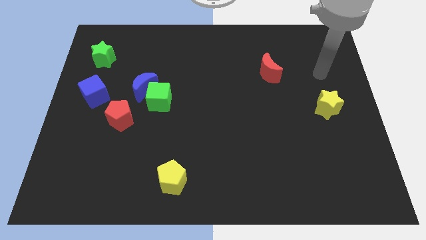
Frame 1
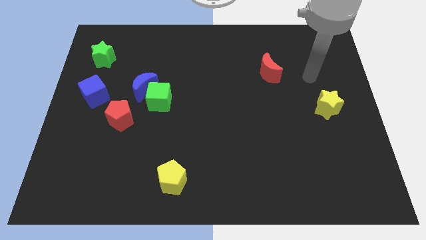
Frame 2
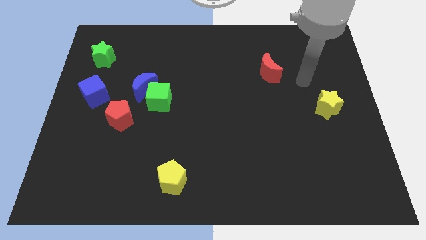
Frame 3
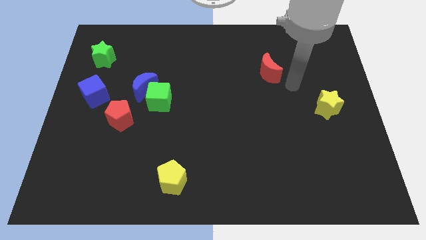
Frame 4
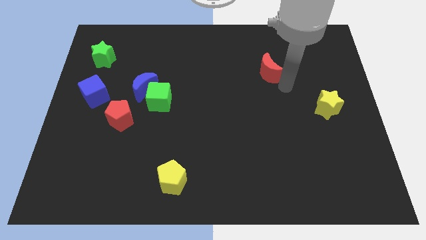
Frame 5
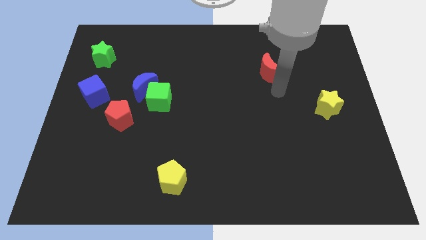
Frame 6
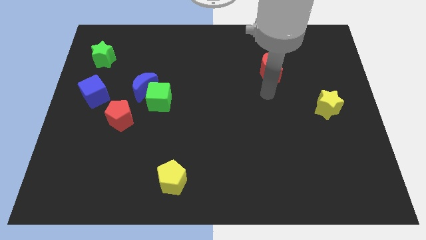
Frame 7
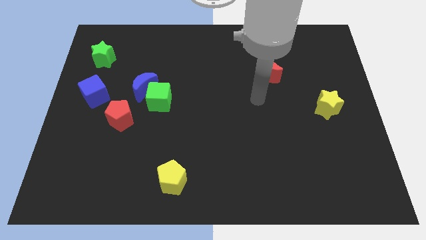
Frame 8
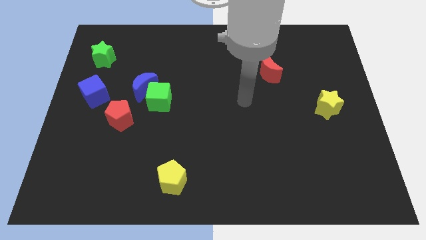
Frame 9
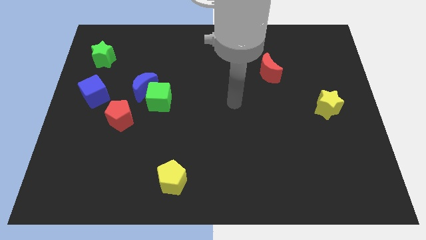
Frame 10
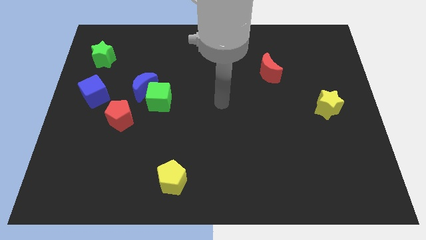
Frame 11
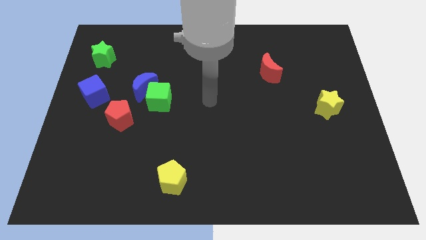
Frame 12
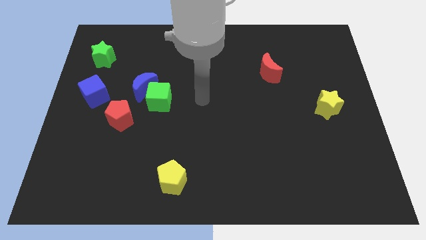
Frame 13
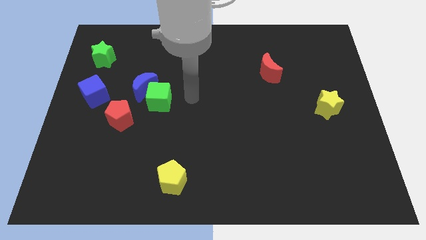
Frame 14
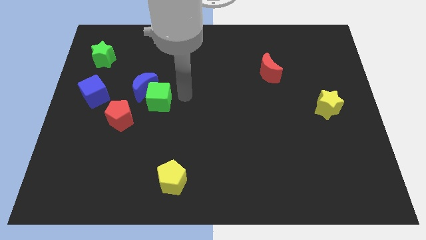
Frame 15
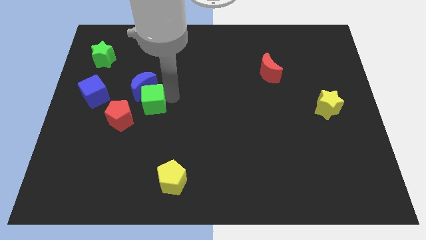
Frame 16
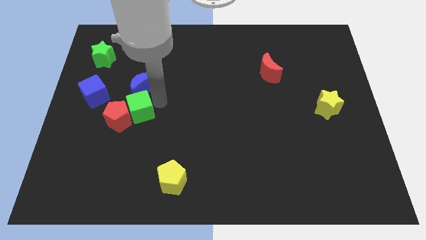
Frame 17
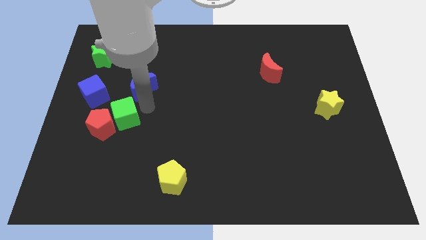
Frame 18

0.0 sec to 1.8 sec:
pull the blue moon apart from the green cube and red pentagon

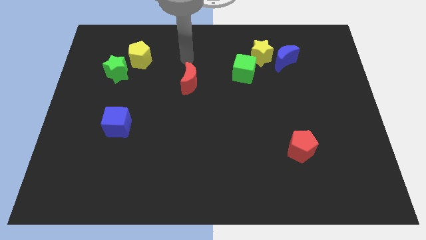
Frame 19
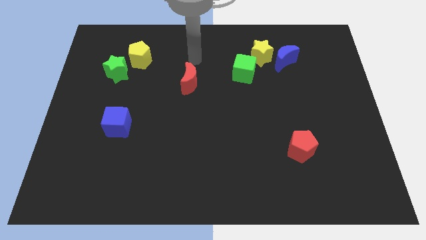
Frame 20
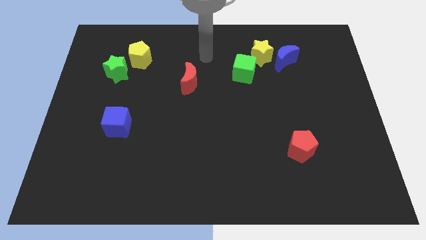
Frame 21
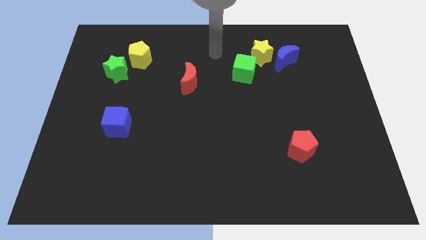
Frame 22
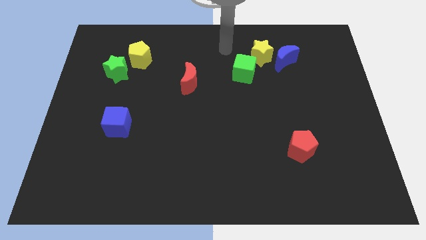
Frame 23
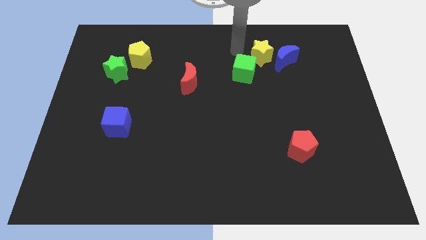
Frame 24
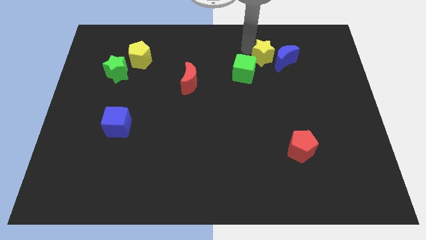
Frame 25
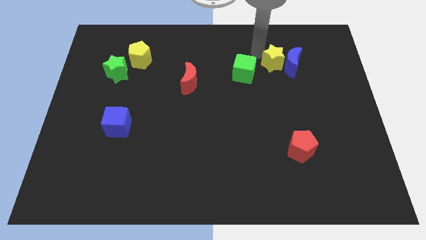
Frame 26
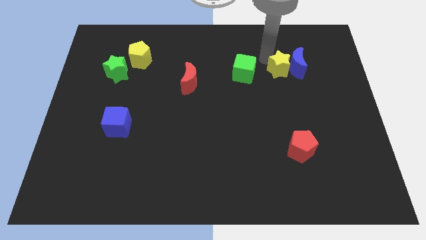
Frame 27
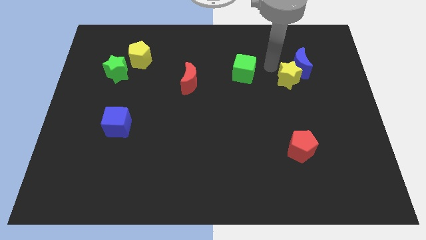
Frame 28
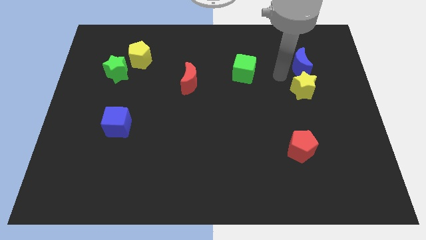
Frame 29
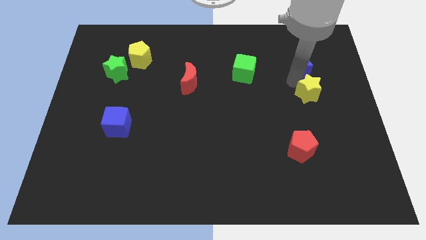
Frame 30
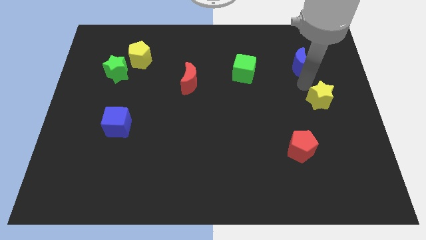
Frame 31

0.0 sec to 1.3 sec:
separate the blue moon from the yellow star

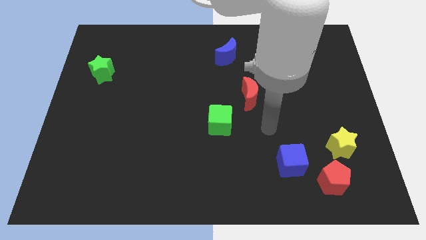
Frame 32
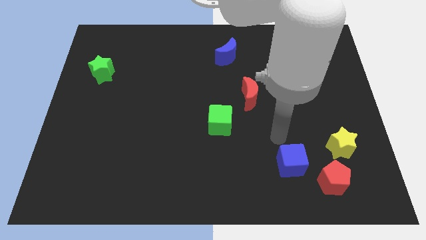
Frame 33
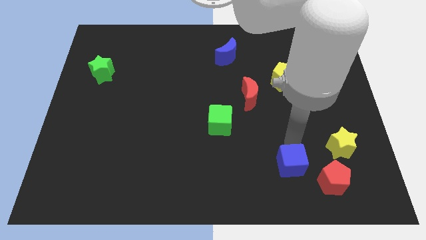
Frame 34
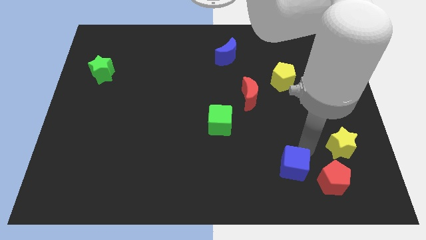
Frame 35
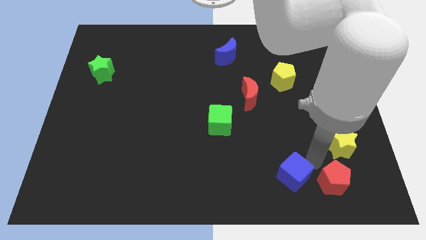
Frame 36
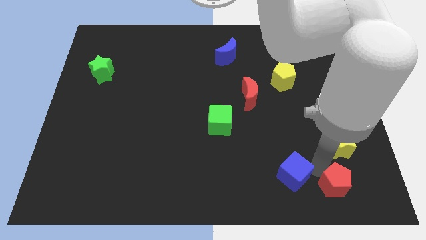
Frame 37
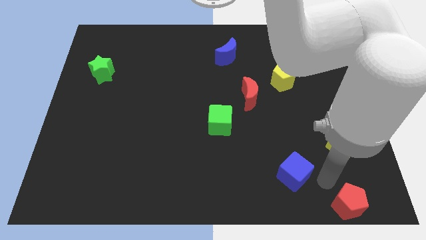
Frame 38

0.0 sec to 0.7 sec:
move the blue cube away from the red pentagon

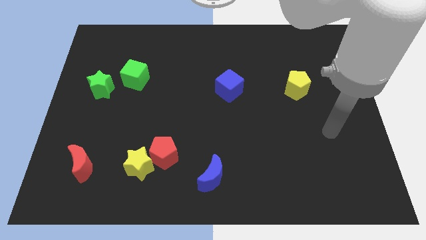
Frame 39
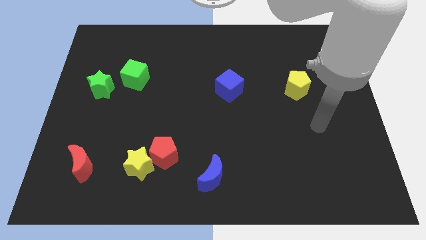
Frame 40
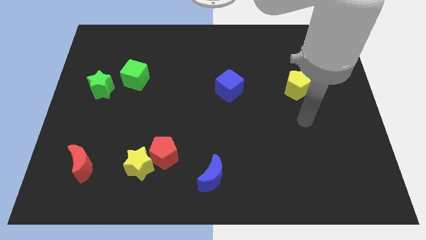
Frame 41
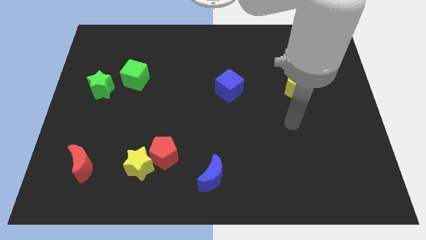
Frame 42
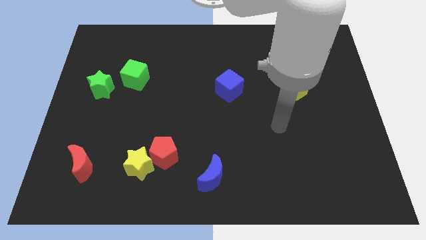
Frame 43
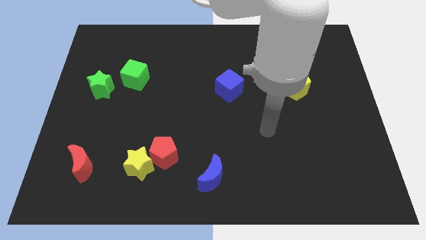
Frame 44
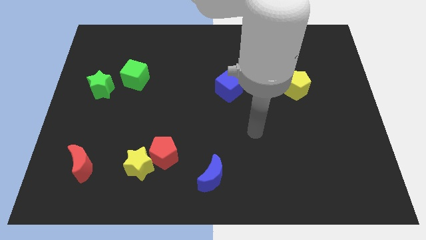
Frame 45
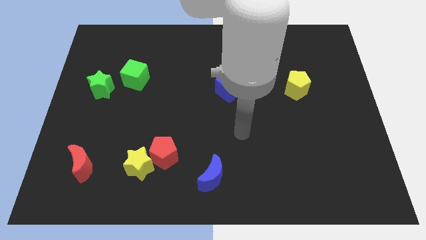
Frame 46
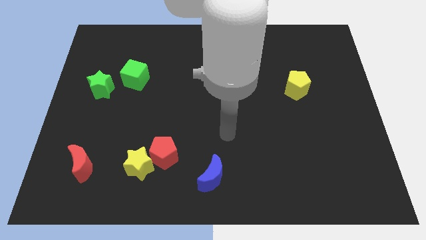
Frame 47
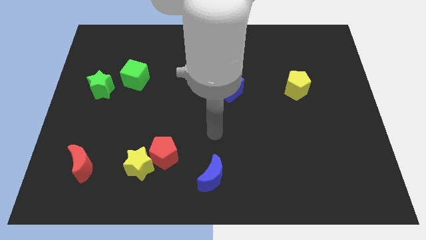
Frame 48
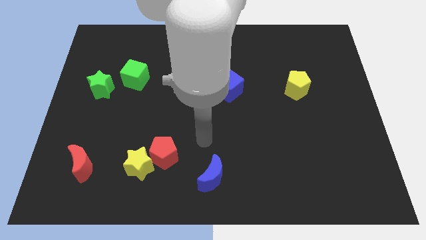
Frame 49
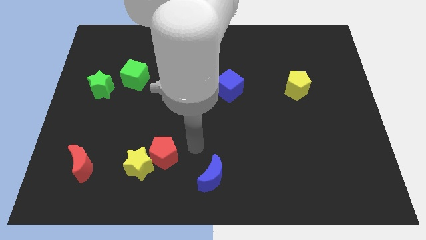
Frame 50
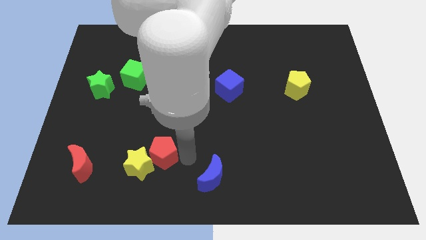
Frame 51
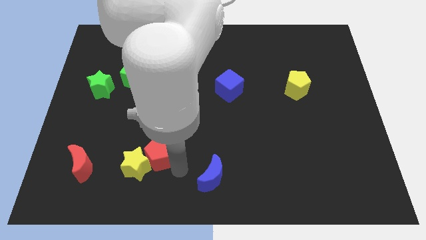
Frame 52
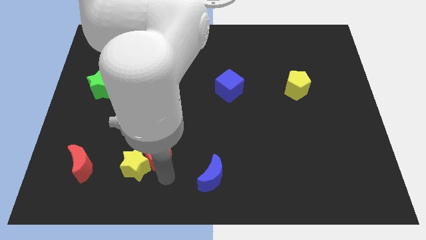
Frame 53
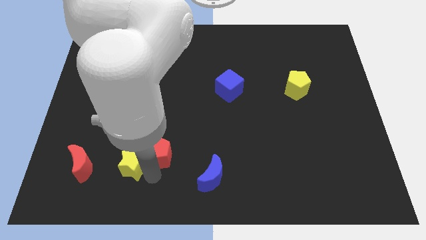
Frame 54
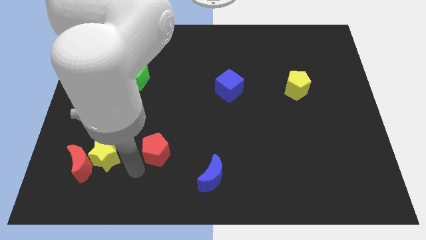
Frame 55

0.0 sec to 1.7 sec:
pull the red pentagon apart from the yellow star

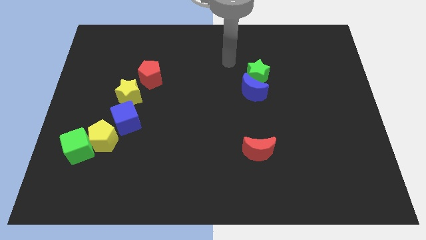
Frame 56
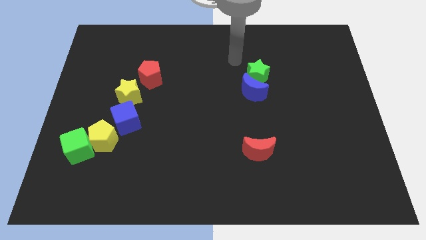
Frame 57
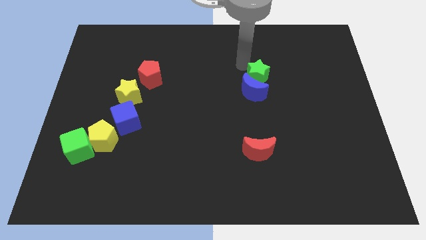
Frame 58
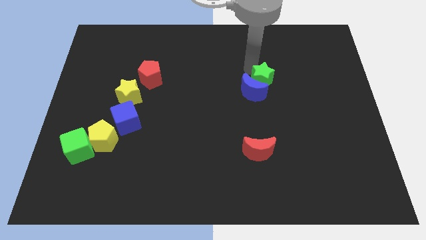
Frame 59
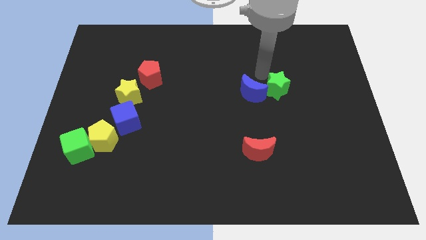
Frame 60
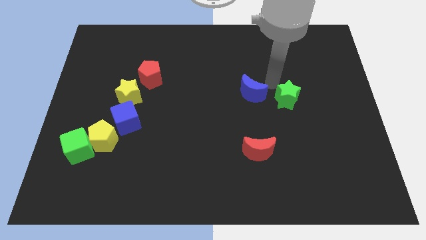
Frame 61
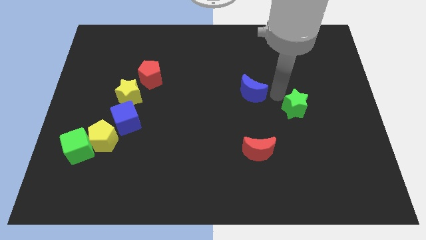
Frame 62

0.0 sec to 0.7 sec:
separate the blue moon from the green star

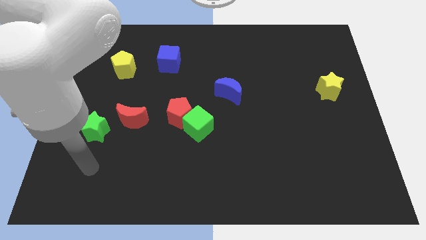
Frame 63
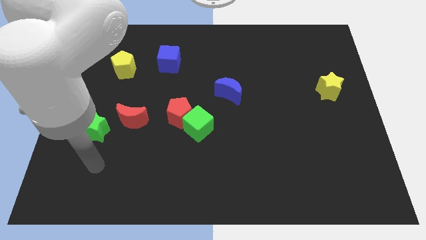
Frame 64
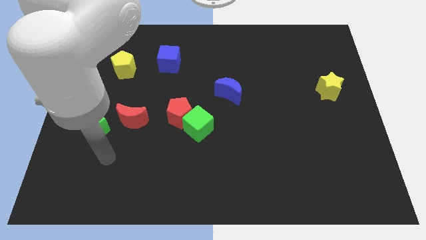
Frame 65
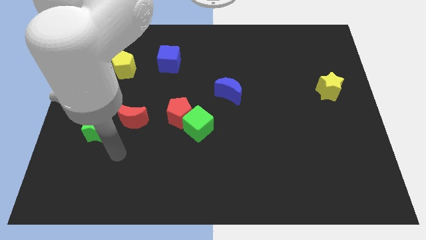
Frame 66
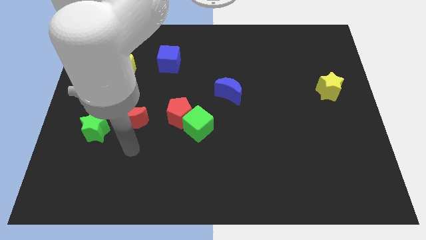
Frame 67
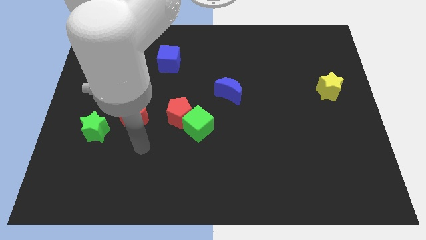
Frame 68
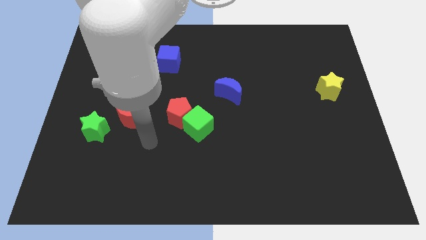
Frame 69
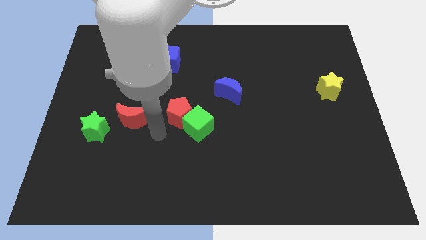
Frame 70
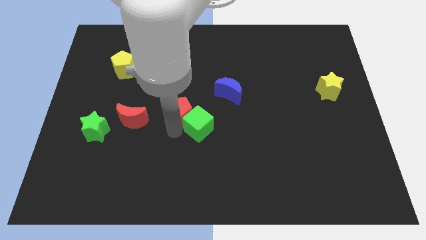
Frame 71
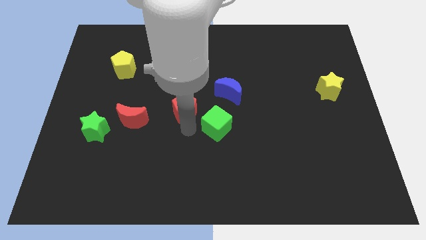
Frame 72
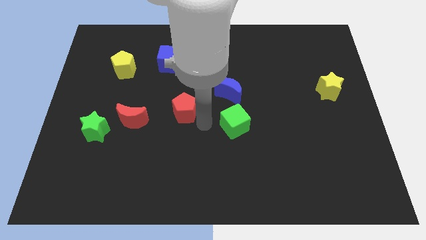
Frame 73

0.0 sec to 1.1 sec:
pull the red pentagon apart from the green cube

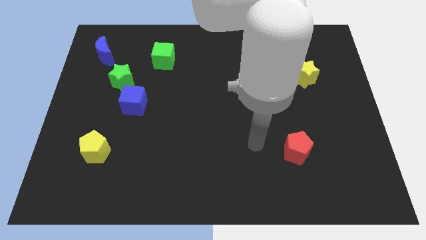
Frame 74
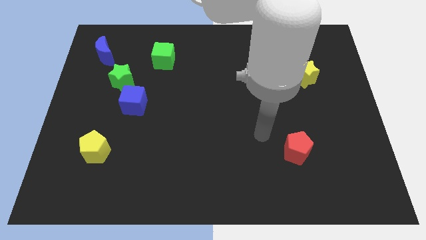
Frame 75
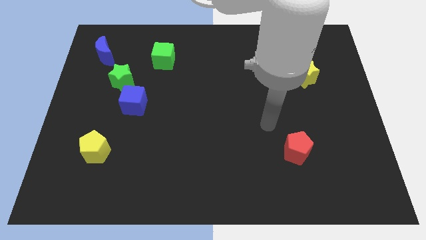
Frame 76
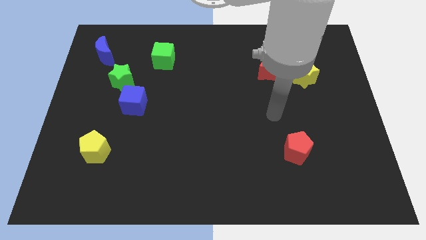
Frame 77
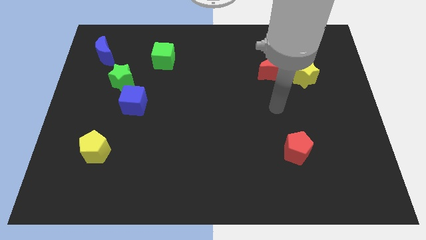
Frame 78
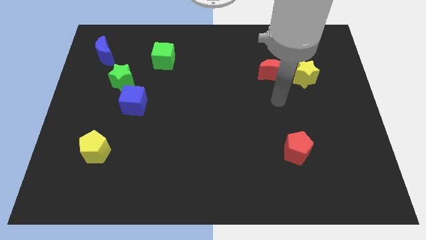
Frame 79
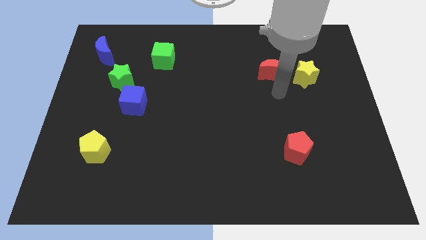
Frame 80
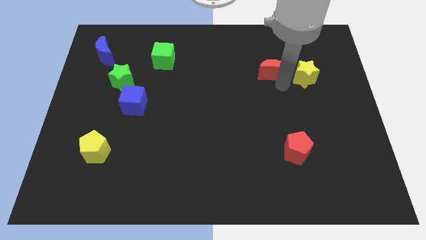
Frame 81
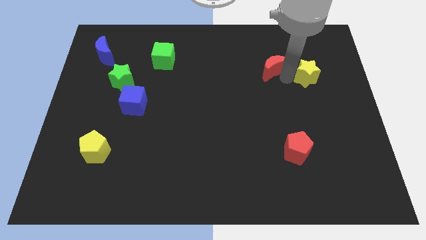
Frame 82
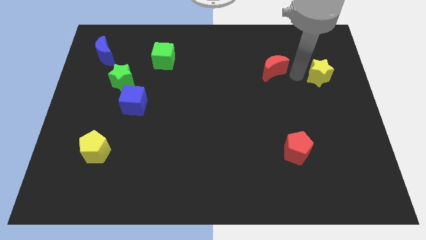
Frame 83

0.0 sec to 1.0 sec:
pull the red moon apart from the yellow star

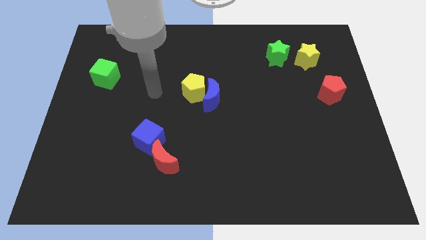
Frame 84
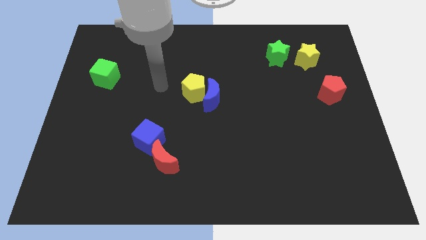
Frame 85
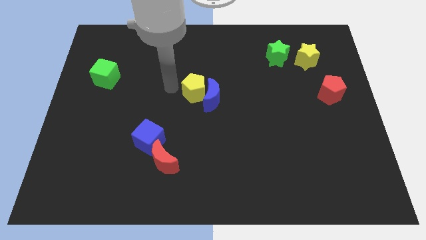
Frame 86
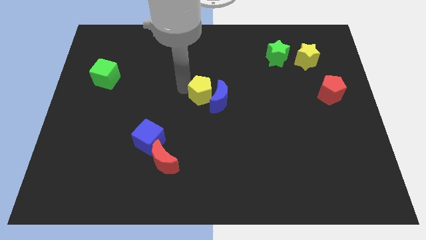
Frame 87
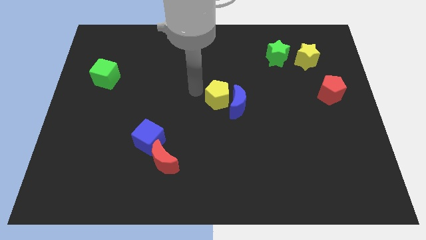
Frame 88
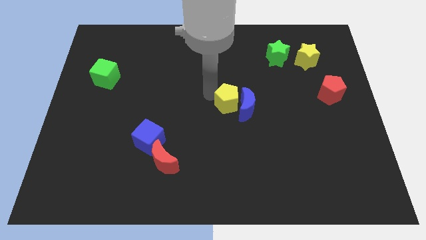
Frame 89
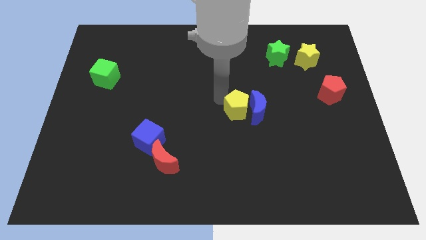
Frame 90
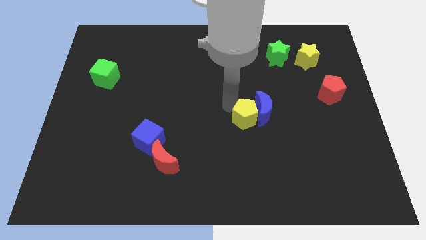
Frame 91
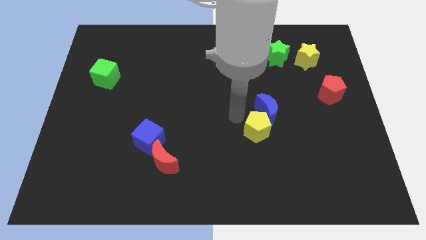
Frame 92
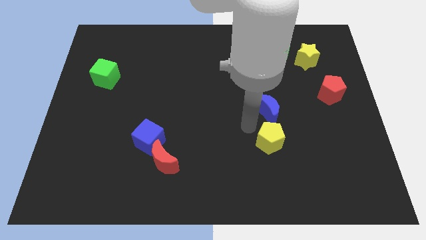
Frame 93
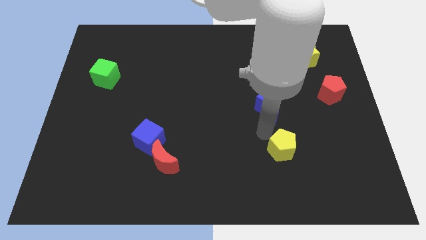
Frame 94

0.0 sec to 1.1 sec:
move the blue moon away from the yellow pentagon
